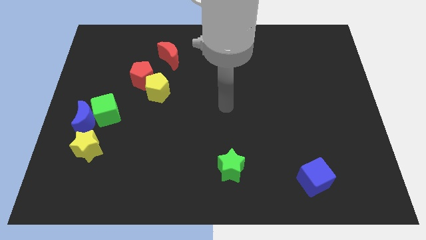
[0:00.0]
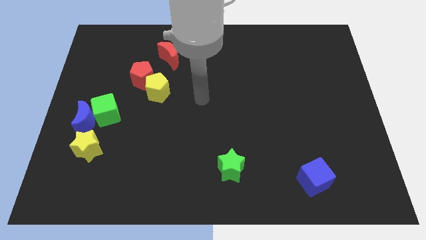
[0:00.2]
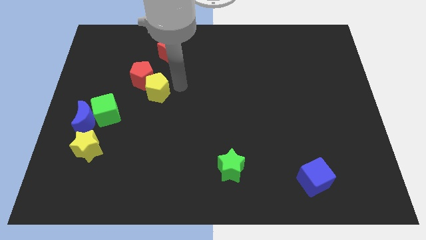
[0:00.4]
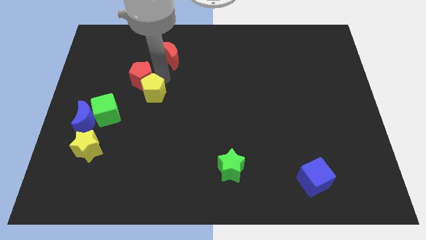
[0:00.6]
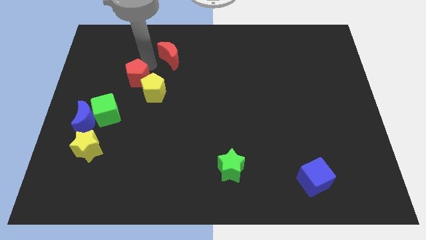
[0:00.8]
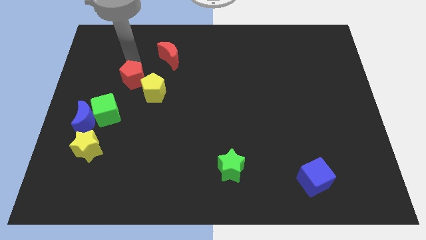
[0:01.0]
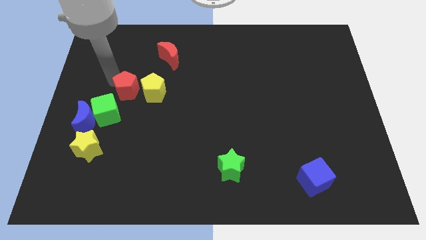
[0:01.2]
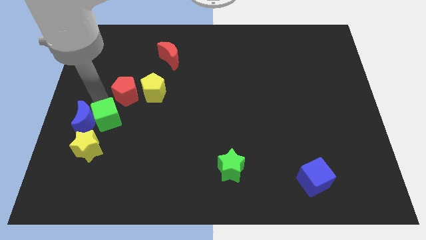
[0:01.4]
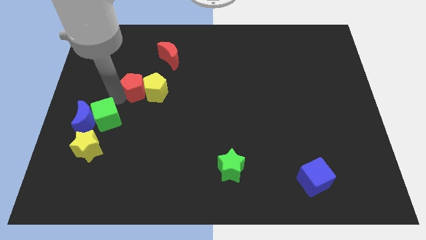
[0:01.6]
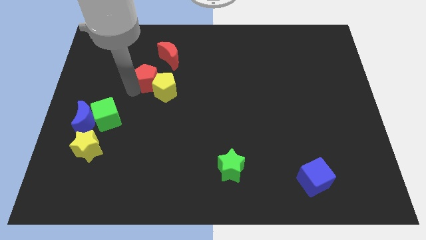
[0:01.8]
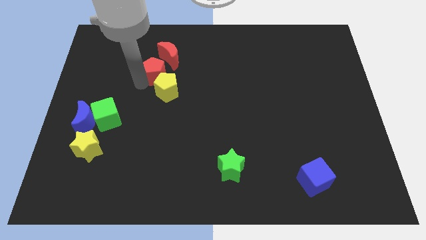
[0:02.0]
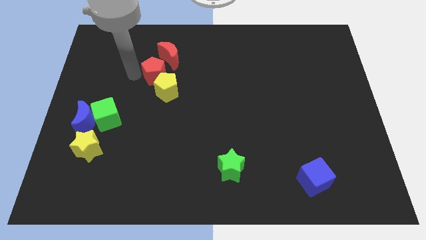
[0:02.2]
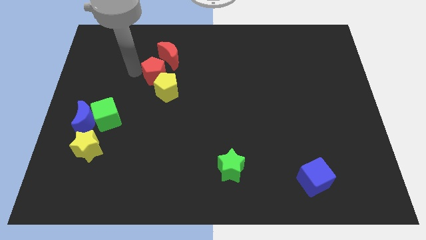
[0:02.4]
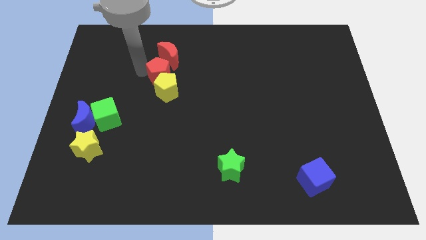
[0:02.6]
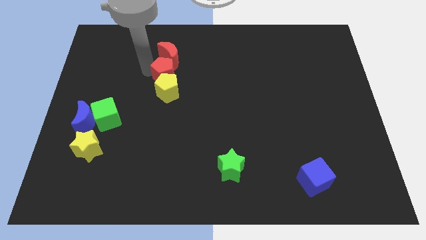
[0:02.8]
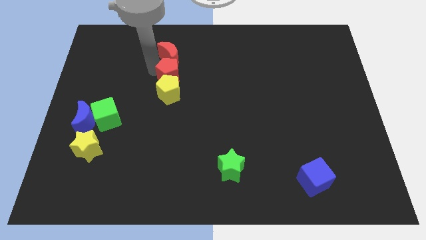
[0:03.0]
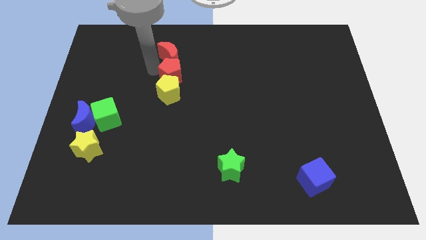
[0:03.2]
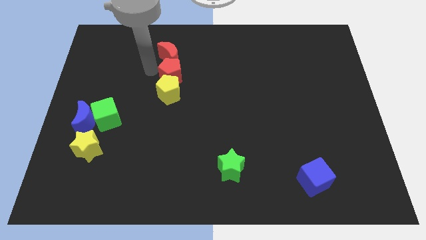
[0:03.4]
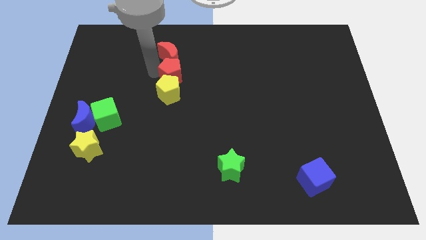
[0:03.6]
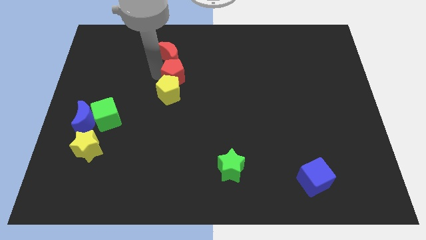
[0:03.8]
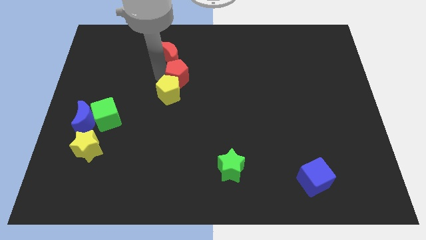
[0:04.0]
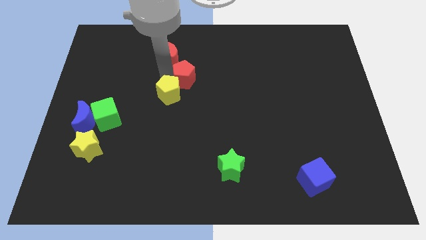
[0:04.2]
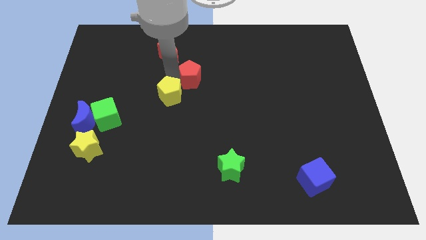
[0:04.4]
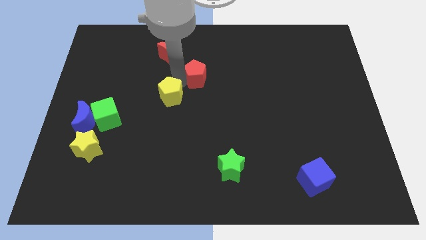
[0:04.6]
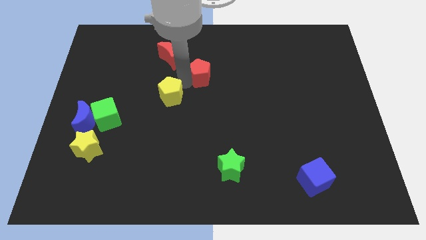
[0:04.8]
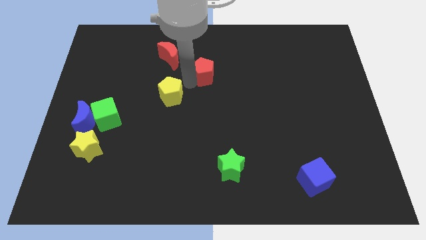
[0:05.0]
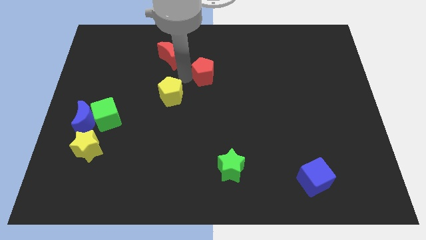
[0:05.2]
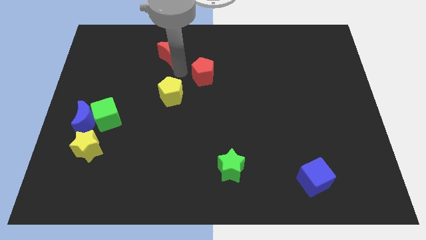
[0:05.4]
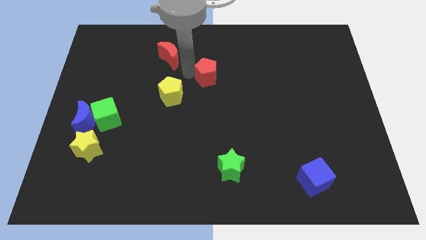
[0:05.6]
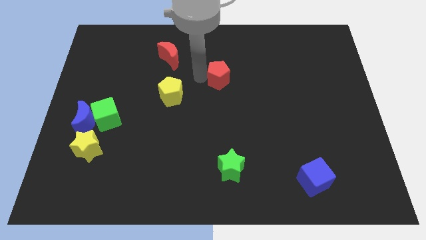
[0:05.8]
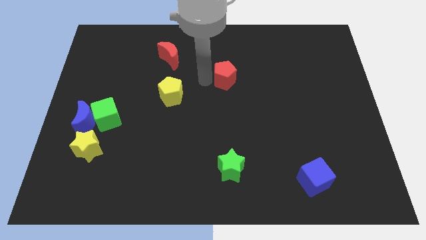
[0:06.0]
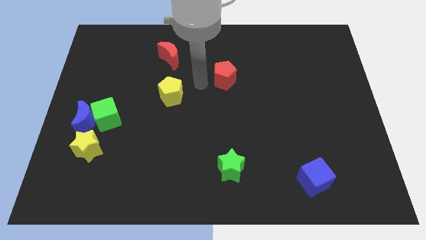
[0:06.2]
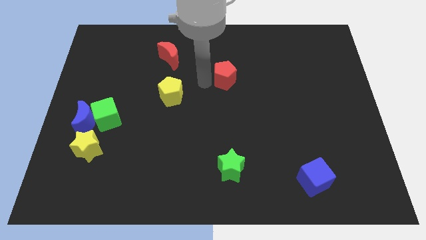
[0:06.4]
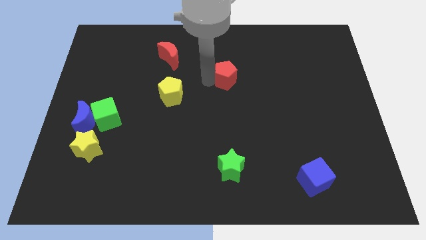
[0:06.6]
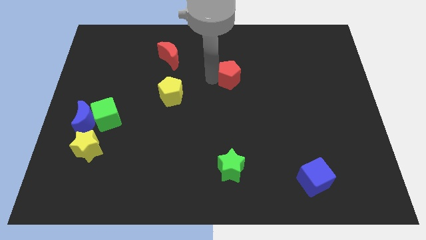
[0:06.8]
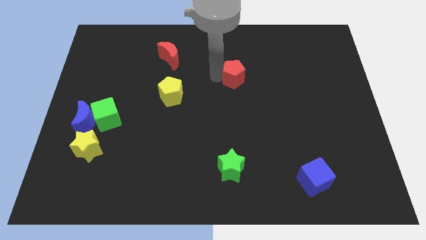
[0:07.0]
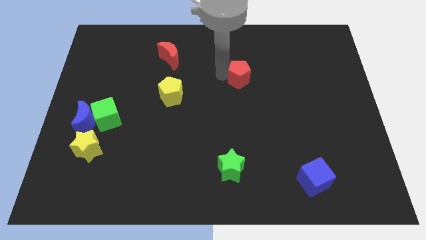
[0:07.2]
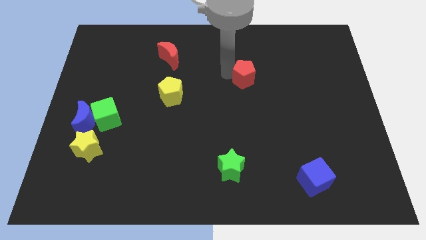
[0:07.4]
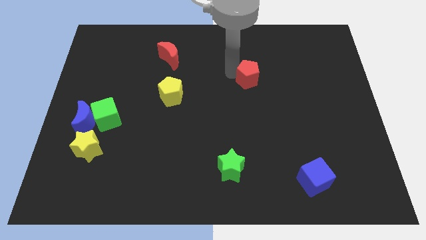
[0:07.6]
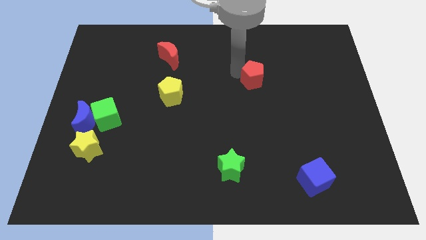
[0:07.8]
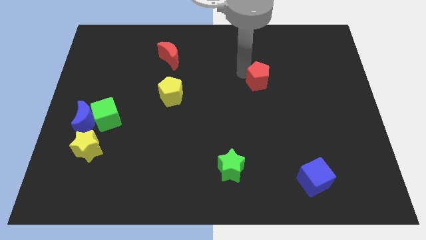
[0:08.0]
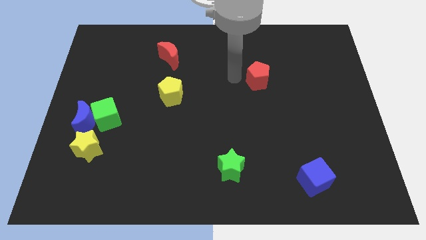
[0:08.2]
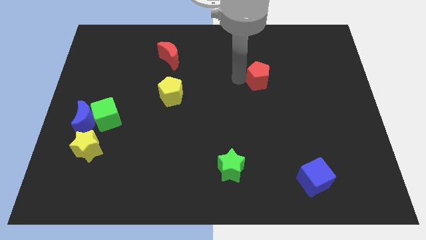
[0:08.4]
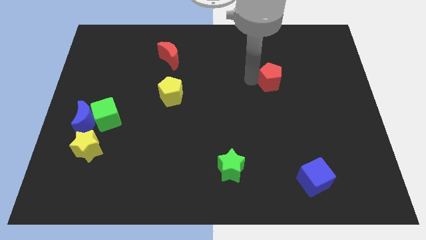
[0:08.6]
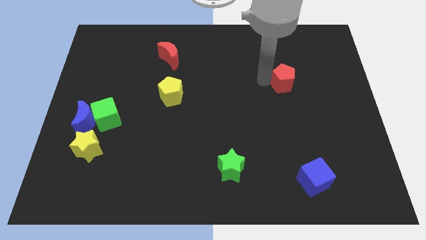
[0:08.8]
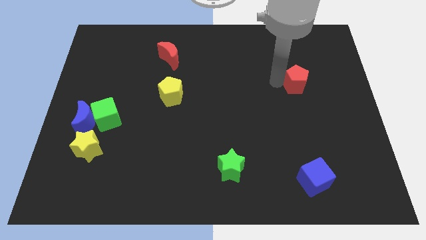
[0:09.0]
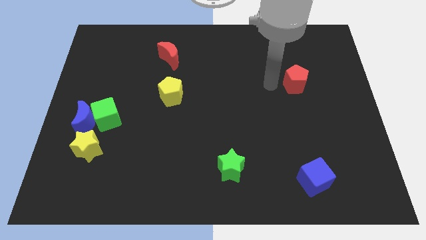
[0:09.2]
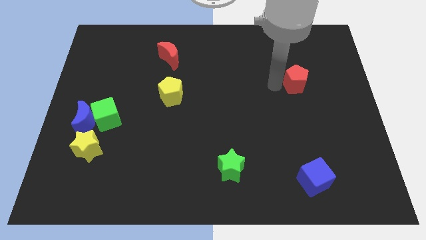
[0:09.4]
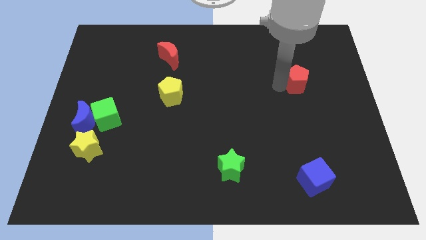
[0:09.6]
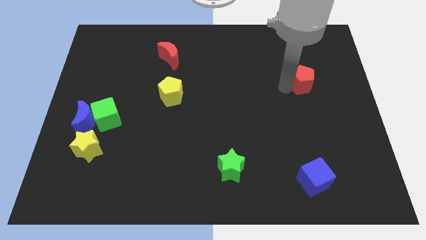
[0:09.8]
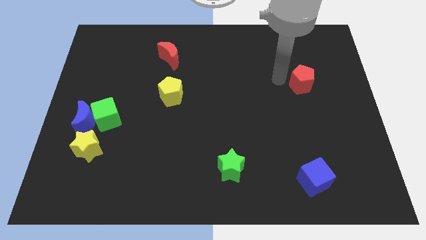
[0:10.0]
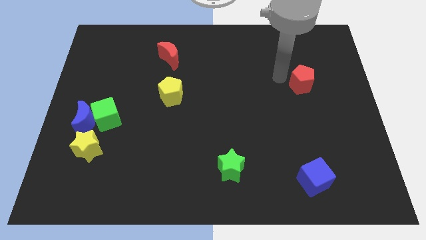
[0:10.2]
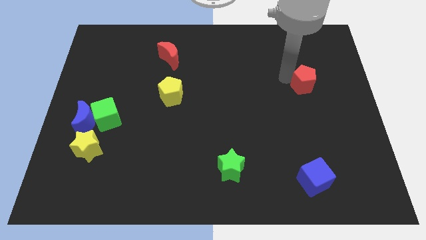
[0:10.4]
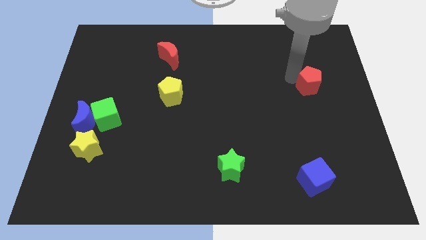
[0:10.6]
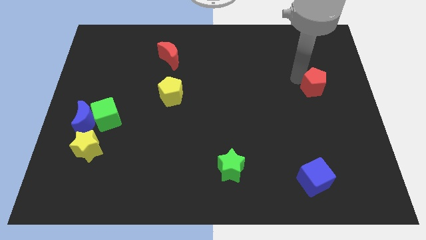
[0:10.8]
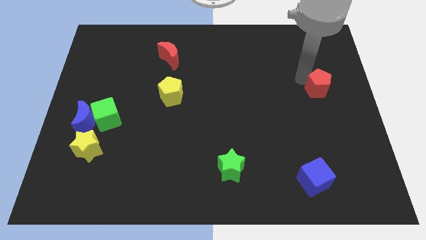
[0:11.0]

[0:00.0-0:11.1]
slide the red pentagon to the right side of the board

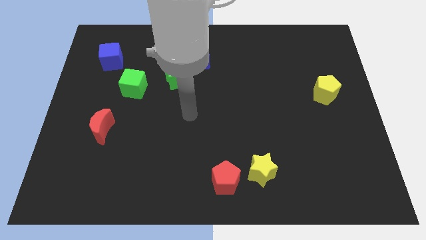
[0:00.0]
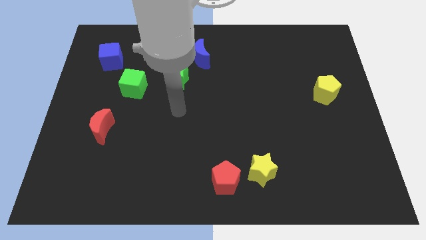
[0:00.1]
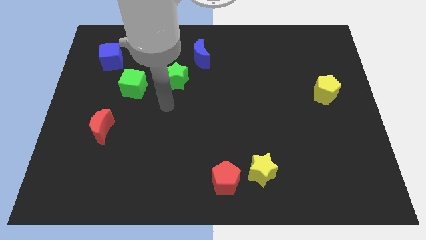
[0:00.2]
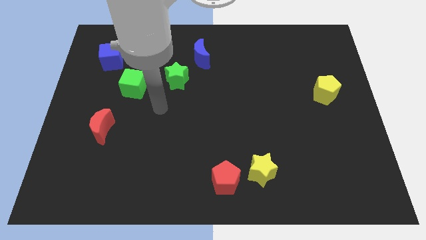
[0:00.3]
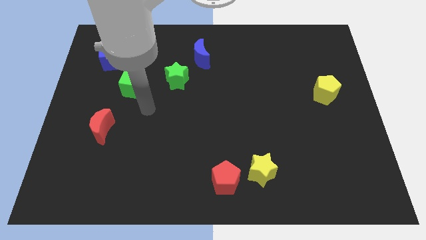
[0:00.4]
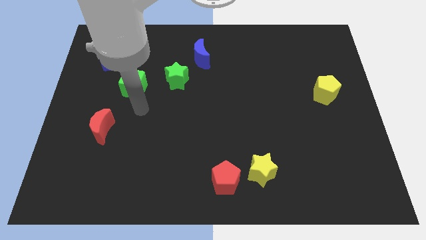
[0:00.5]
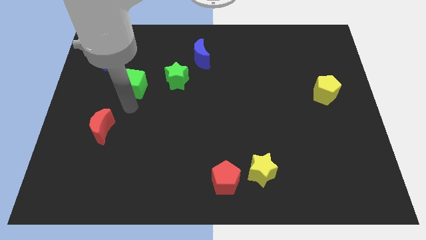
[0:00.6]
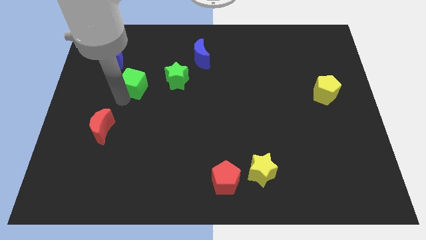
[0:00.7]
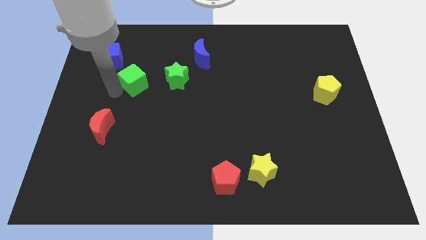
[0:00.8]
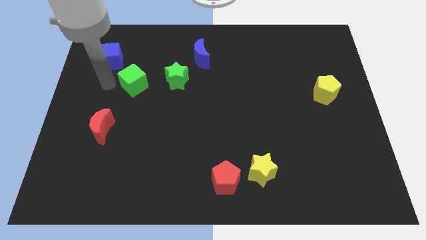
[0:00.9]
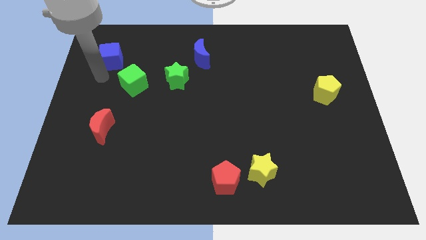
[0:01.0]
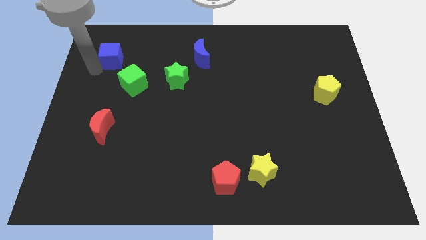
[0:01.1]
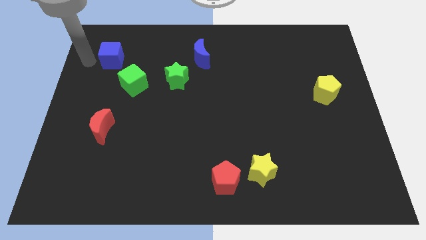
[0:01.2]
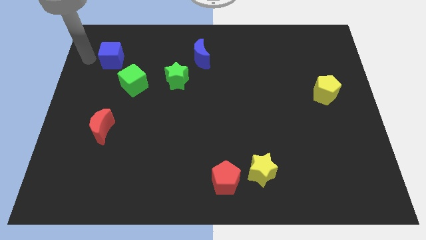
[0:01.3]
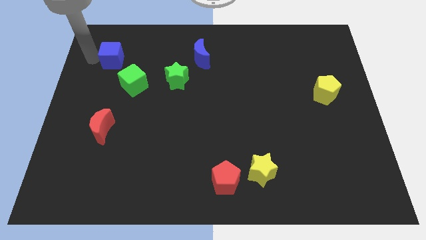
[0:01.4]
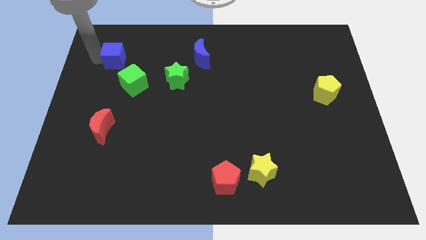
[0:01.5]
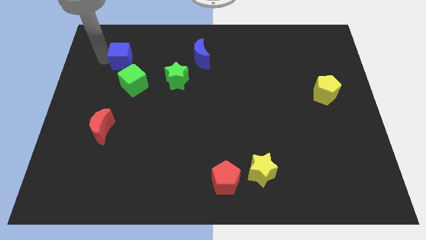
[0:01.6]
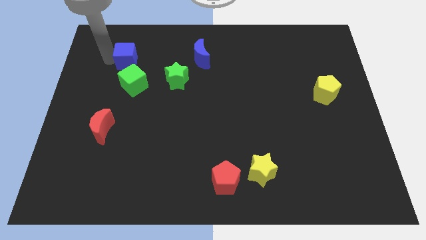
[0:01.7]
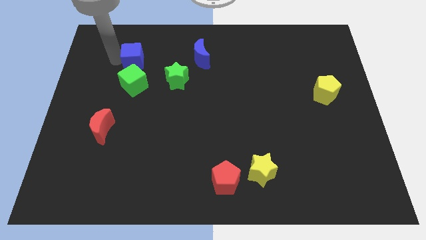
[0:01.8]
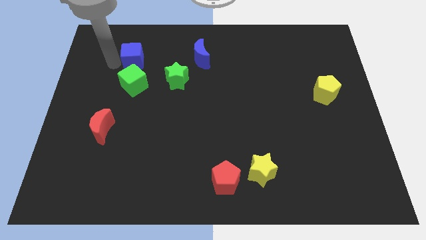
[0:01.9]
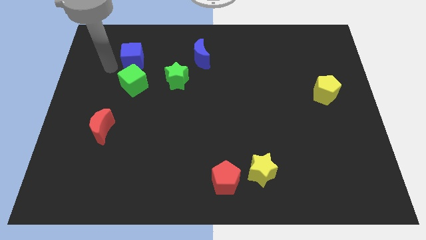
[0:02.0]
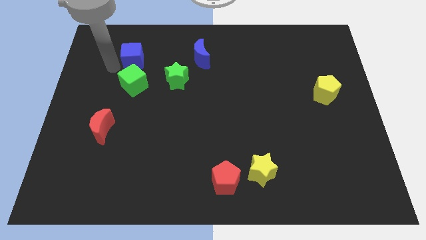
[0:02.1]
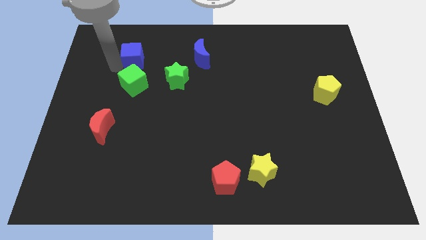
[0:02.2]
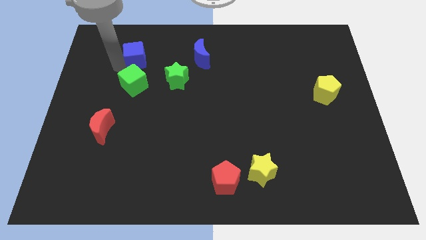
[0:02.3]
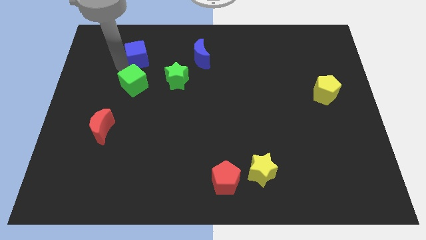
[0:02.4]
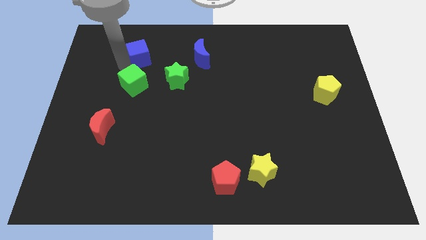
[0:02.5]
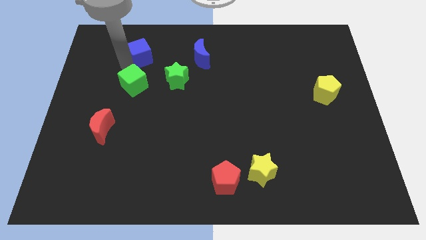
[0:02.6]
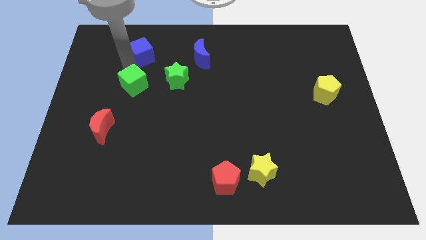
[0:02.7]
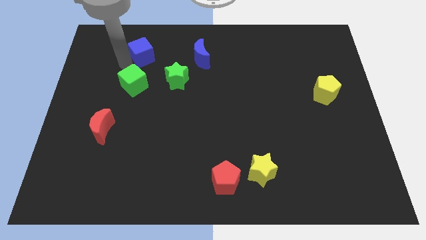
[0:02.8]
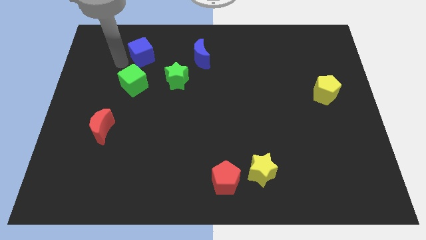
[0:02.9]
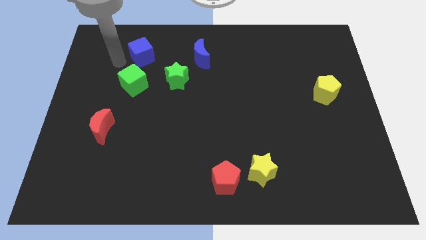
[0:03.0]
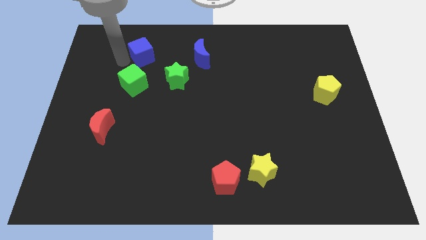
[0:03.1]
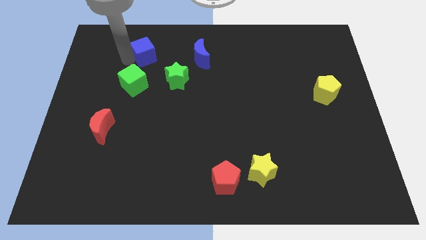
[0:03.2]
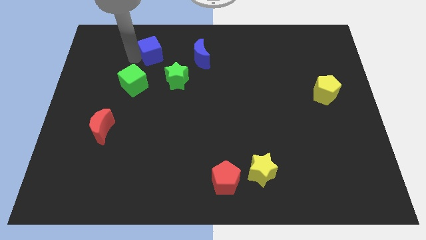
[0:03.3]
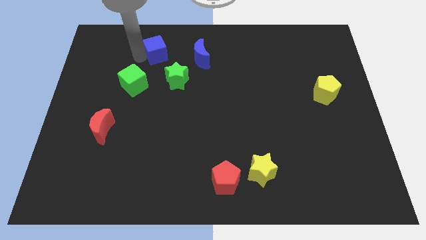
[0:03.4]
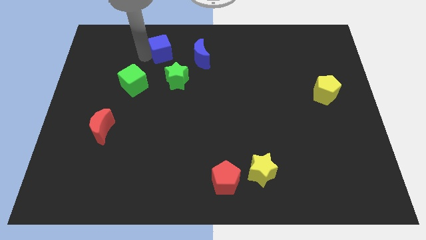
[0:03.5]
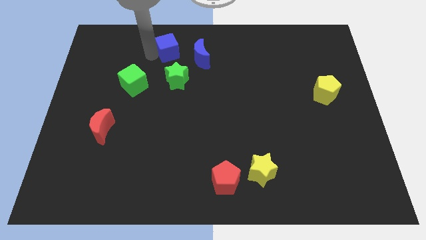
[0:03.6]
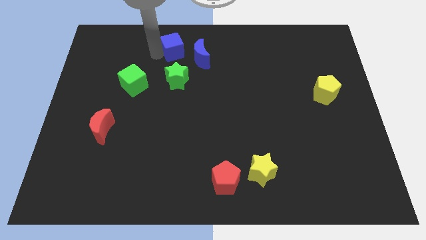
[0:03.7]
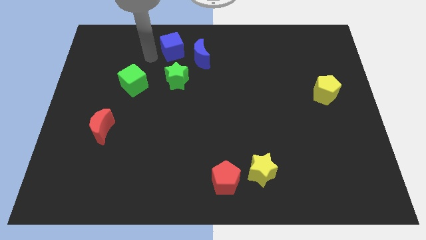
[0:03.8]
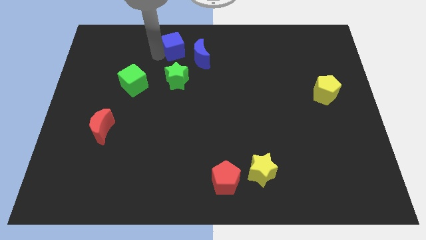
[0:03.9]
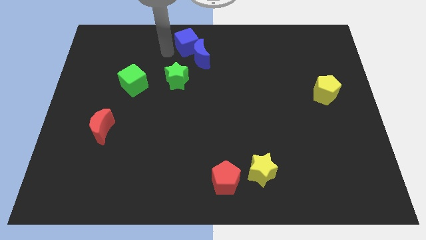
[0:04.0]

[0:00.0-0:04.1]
slide the blue cube to the top
